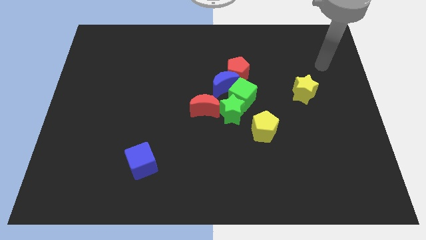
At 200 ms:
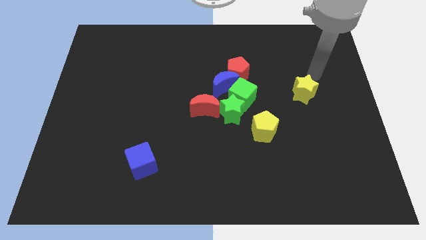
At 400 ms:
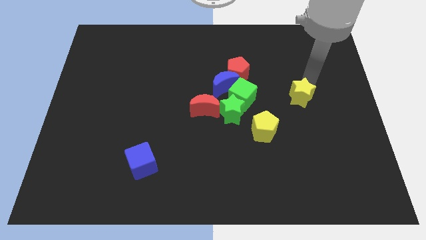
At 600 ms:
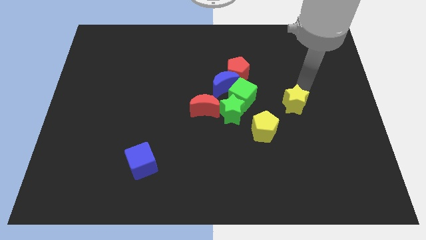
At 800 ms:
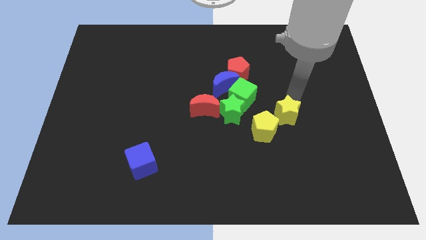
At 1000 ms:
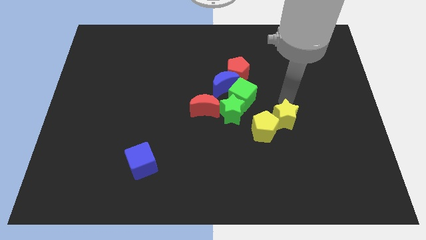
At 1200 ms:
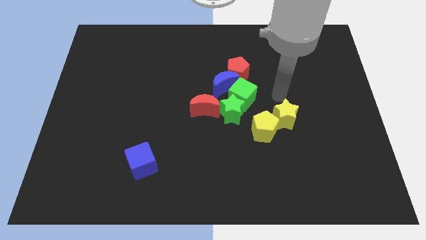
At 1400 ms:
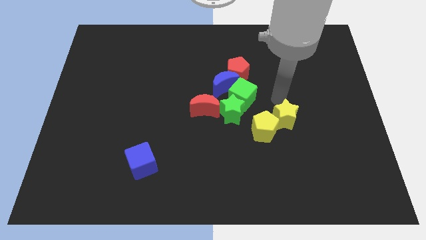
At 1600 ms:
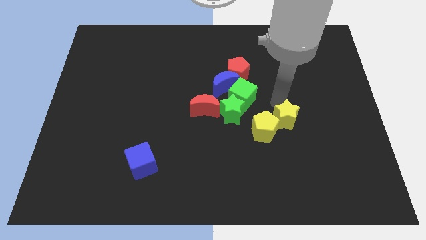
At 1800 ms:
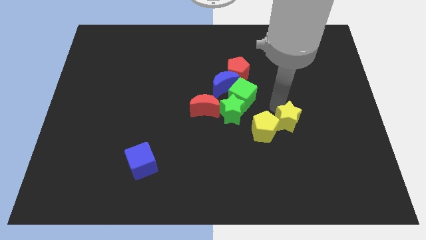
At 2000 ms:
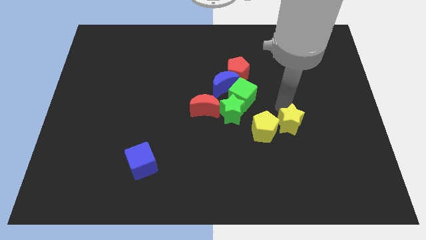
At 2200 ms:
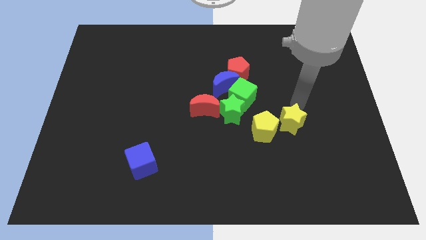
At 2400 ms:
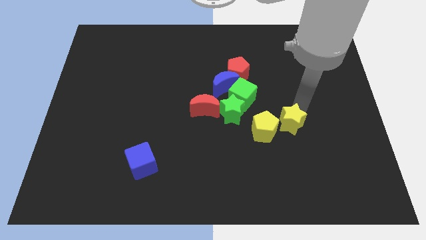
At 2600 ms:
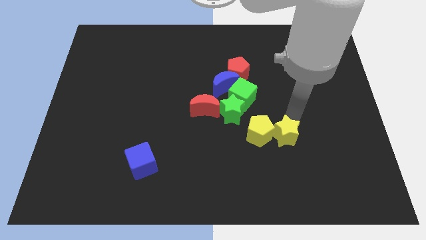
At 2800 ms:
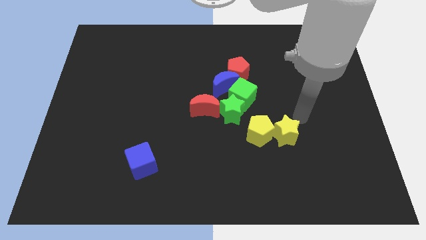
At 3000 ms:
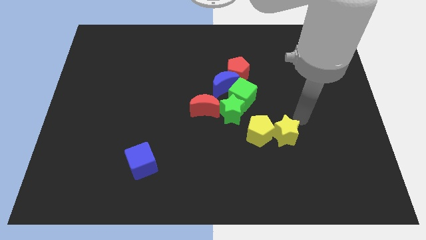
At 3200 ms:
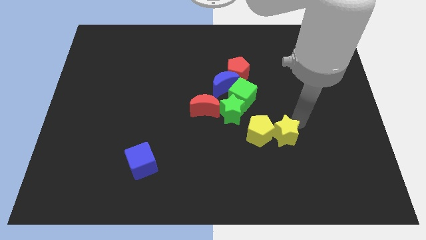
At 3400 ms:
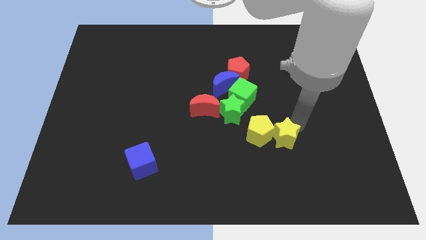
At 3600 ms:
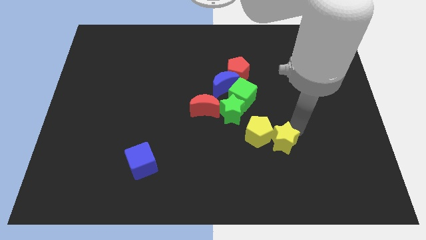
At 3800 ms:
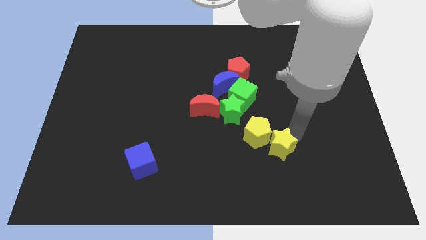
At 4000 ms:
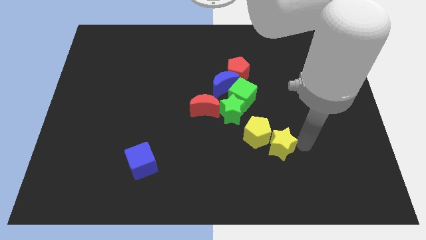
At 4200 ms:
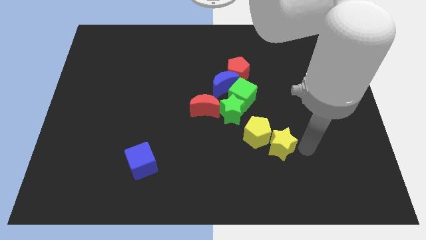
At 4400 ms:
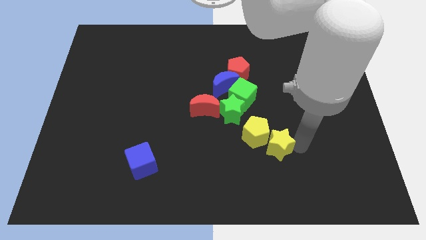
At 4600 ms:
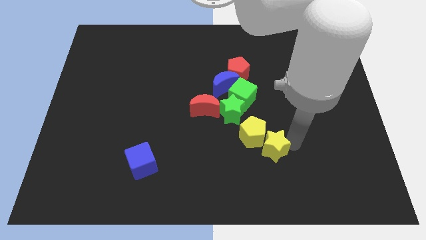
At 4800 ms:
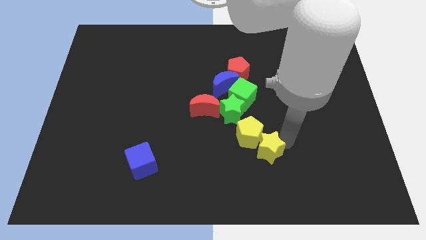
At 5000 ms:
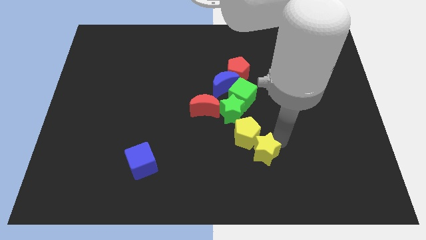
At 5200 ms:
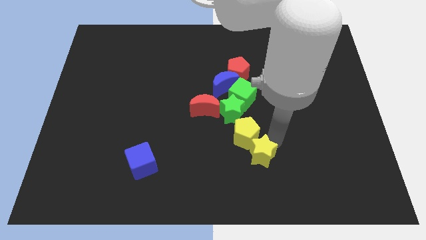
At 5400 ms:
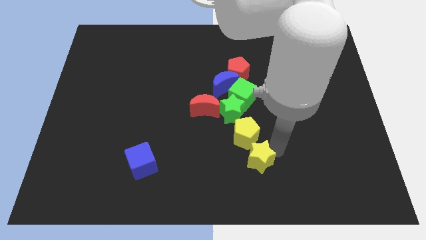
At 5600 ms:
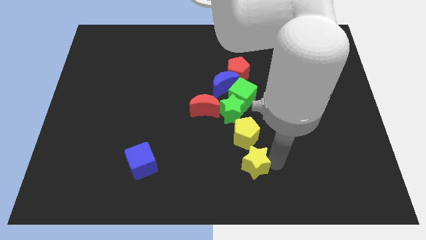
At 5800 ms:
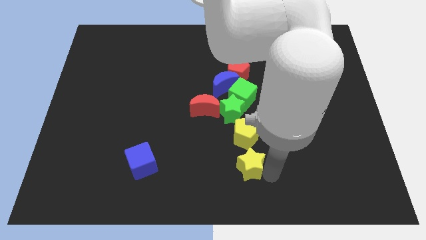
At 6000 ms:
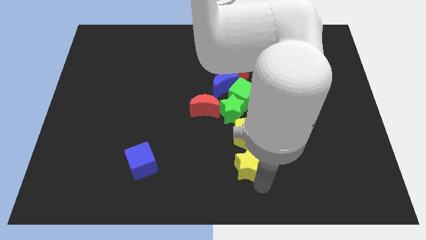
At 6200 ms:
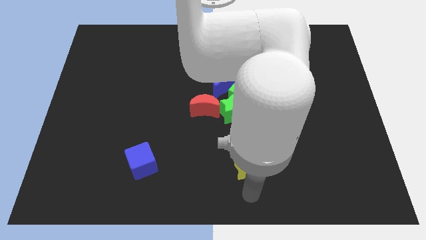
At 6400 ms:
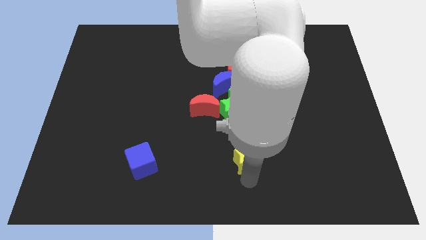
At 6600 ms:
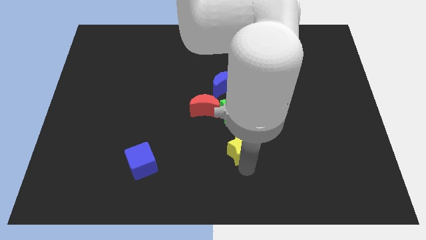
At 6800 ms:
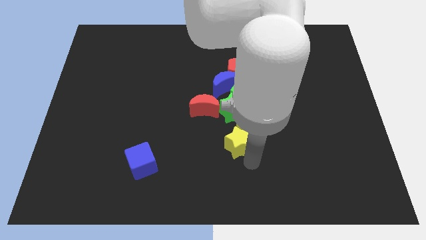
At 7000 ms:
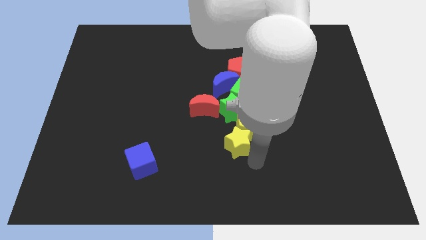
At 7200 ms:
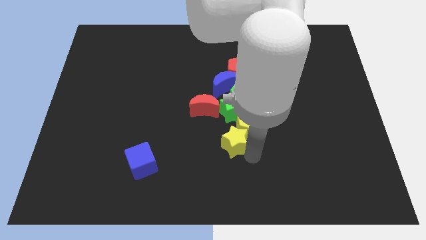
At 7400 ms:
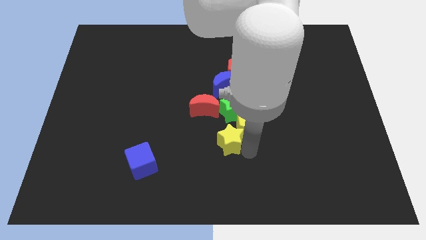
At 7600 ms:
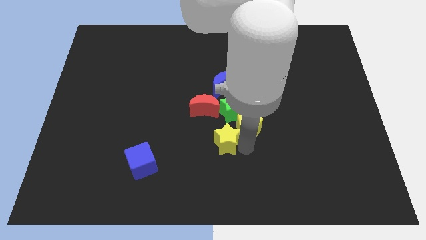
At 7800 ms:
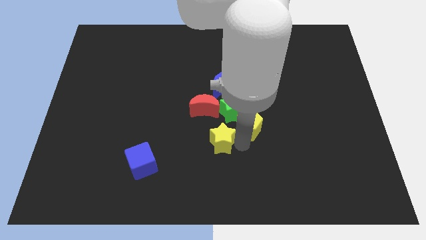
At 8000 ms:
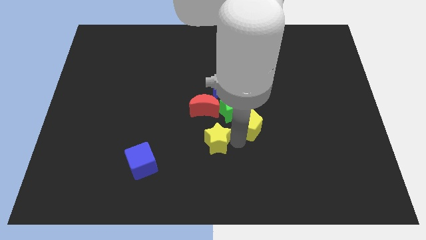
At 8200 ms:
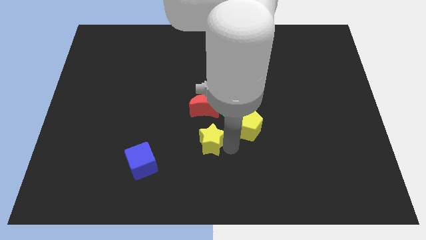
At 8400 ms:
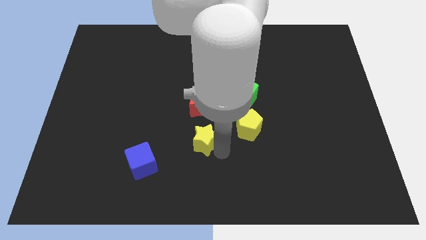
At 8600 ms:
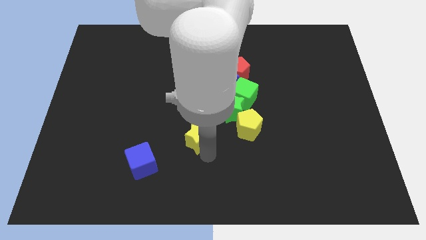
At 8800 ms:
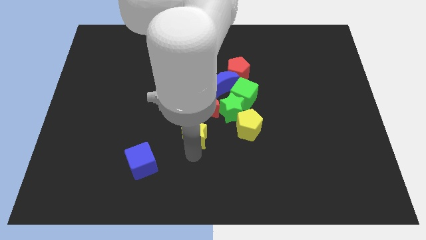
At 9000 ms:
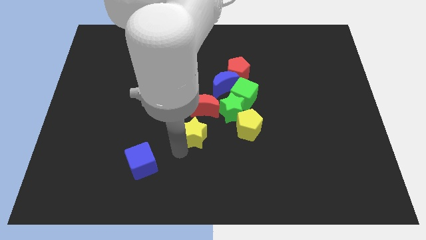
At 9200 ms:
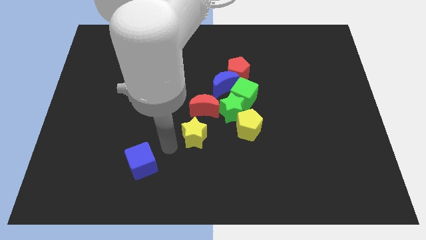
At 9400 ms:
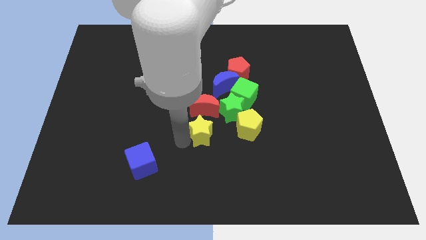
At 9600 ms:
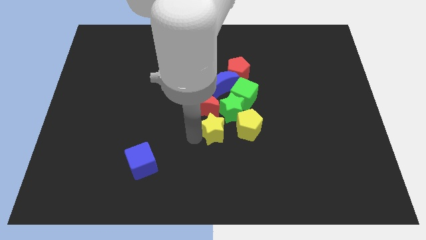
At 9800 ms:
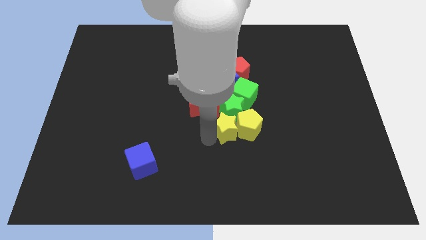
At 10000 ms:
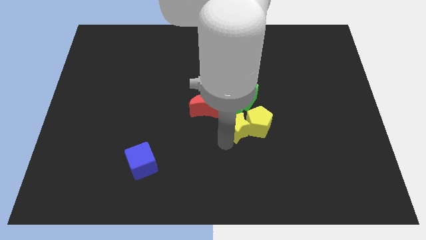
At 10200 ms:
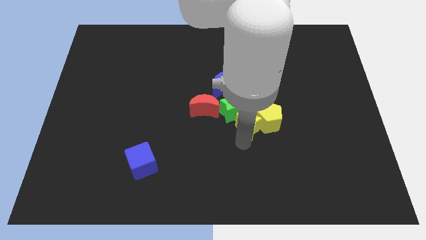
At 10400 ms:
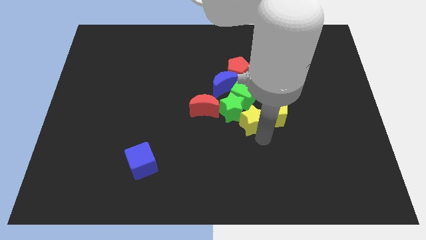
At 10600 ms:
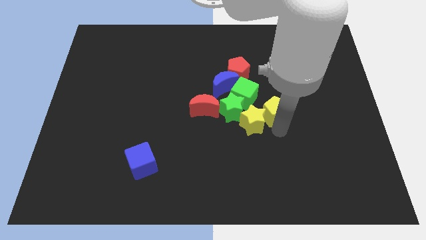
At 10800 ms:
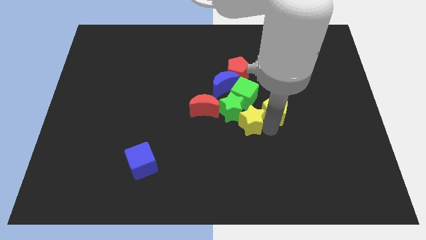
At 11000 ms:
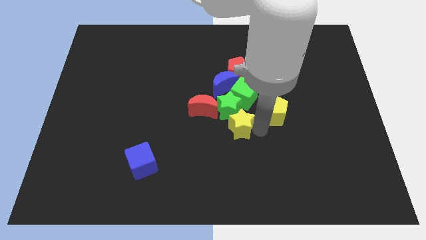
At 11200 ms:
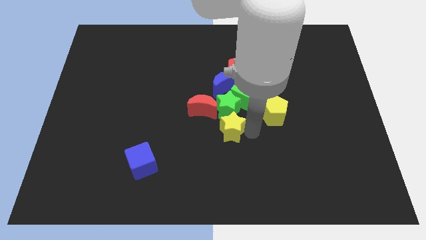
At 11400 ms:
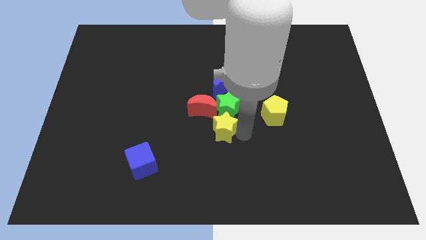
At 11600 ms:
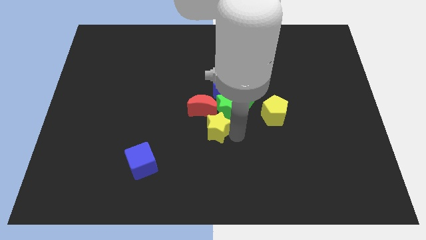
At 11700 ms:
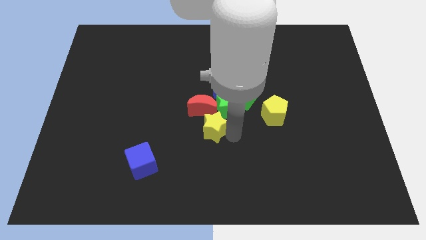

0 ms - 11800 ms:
move the yellow star towards the red moon

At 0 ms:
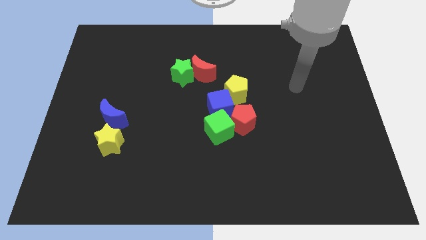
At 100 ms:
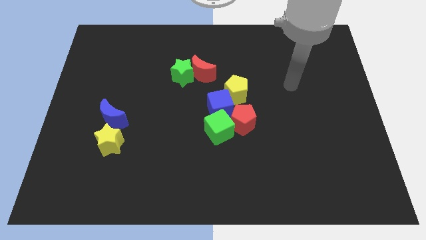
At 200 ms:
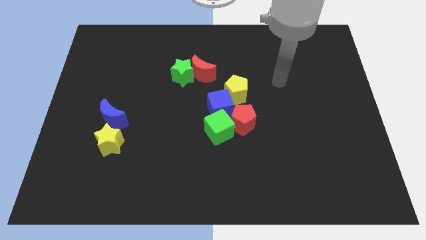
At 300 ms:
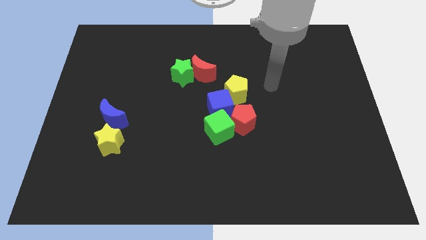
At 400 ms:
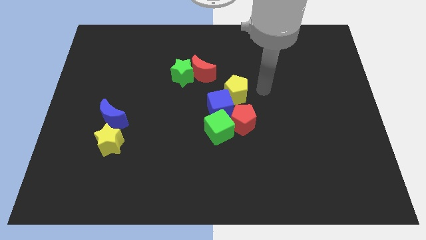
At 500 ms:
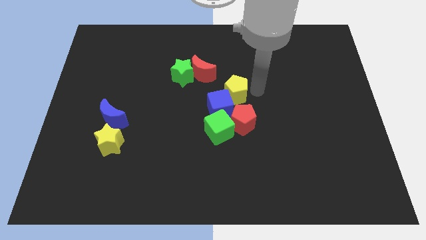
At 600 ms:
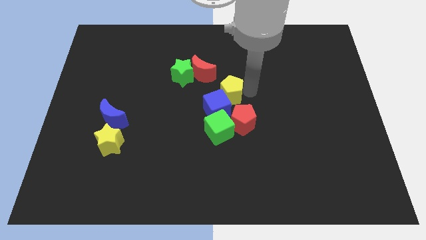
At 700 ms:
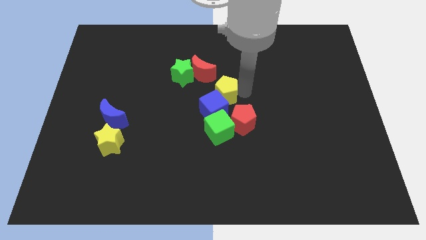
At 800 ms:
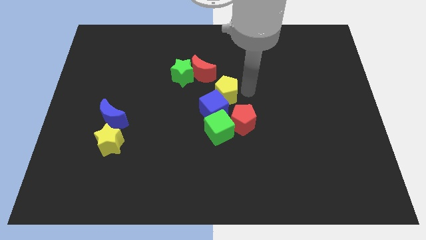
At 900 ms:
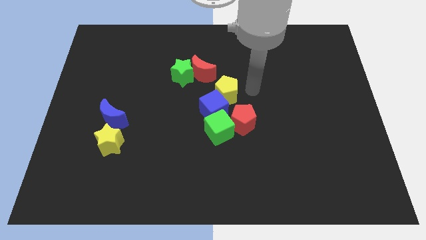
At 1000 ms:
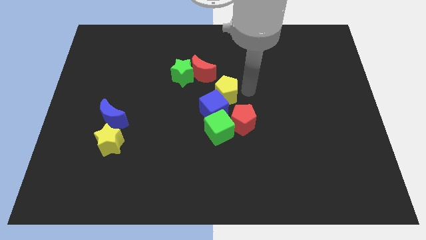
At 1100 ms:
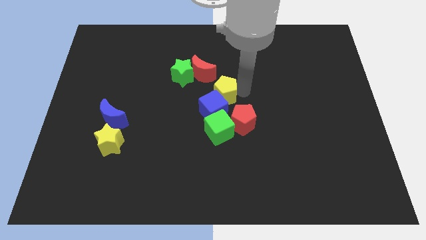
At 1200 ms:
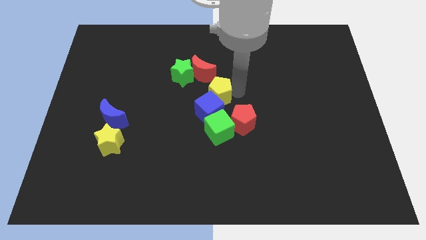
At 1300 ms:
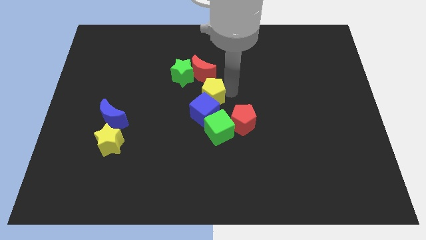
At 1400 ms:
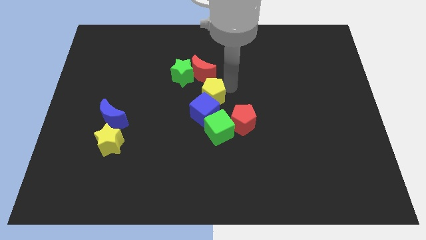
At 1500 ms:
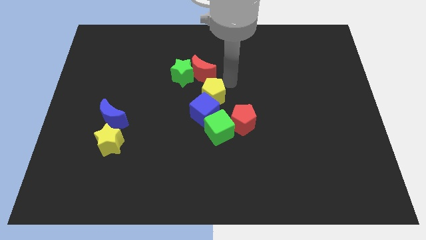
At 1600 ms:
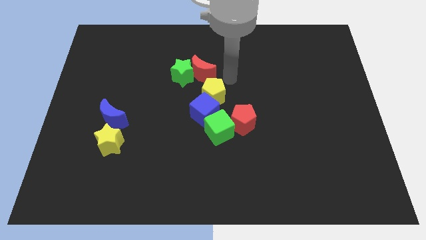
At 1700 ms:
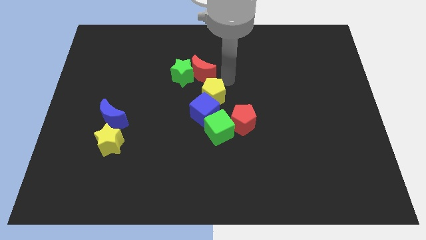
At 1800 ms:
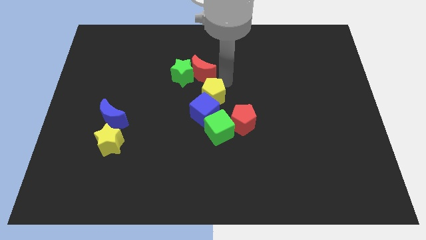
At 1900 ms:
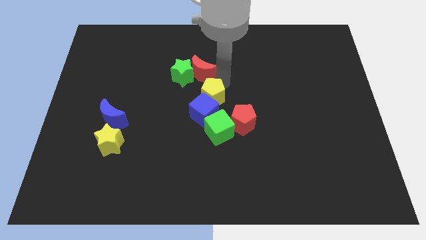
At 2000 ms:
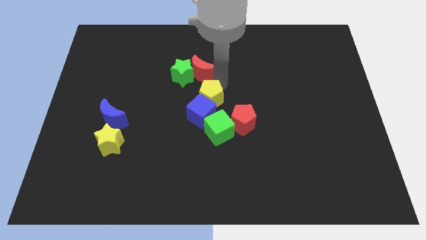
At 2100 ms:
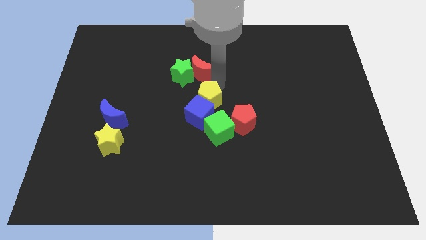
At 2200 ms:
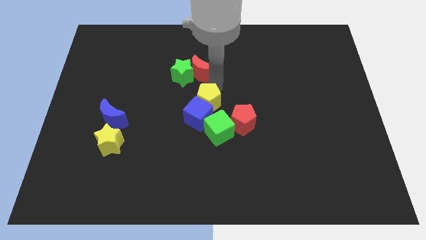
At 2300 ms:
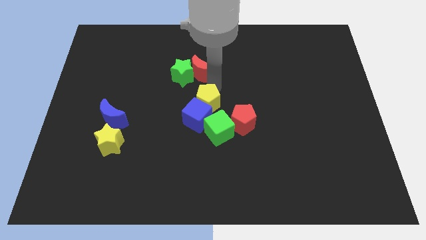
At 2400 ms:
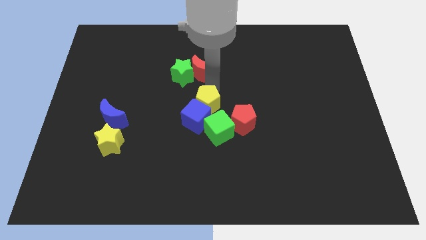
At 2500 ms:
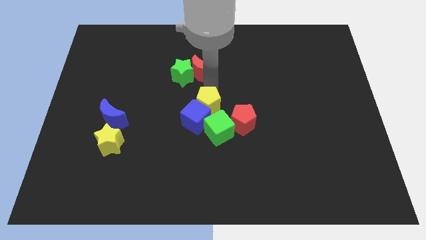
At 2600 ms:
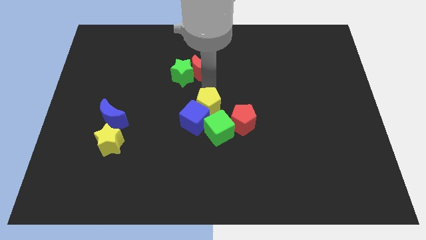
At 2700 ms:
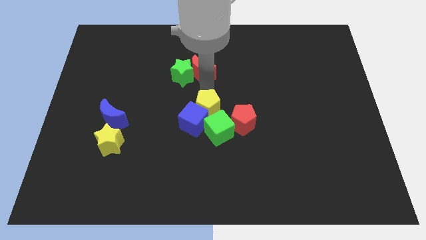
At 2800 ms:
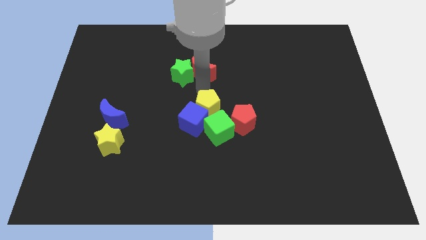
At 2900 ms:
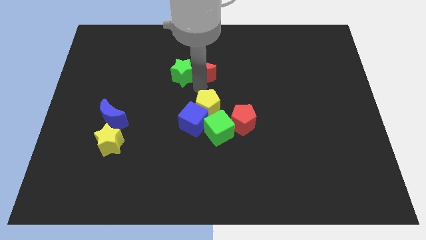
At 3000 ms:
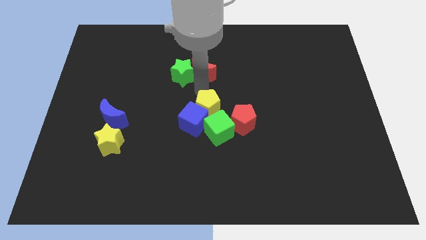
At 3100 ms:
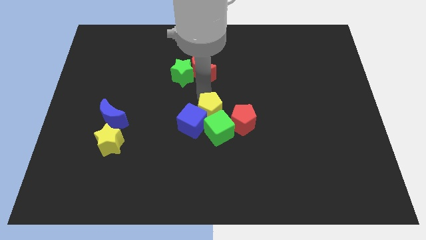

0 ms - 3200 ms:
slide the yellow pentagon close to the green cube
